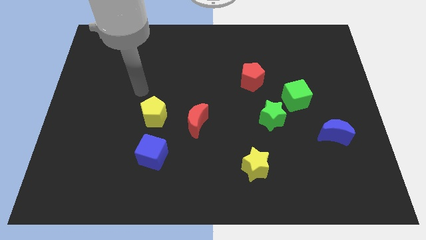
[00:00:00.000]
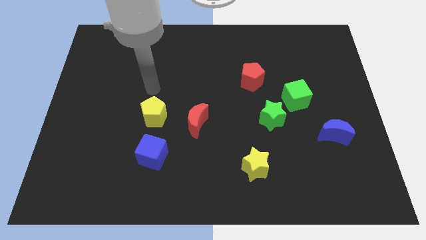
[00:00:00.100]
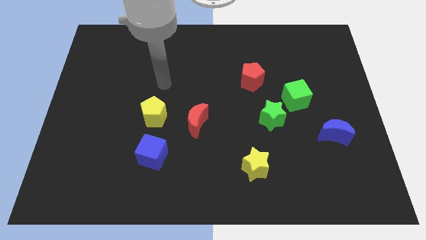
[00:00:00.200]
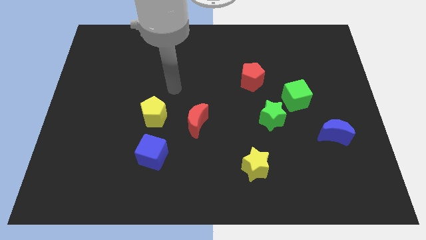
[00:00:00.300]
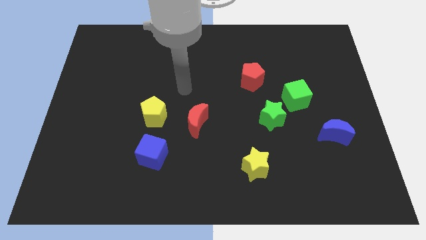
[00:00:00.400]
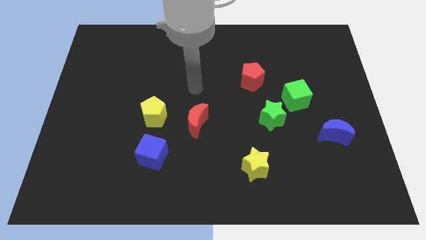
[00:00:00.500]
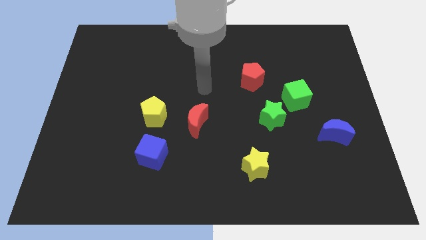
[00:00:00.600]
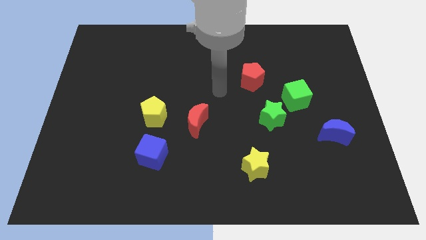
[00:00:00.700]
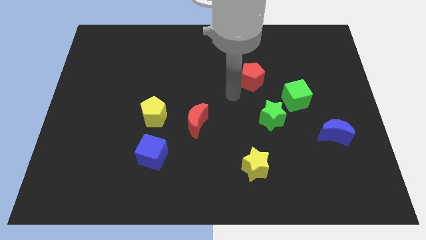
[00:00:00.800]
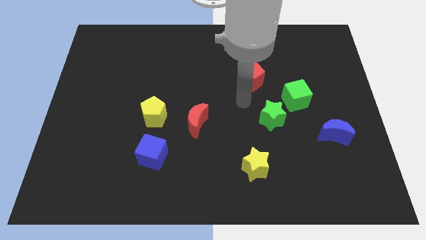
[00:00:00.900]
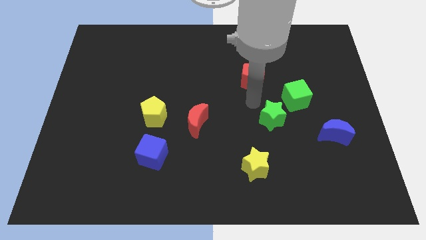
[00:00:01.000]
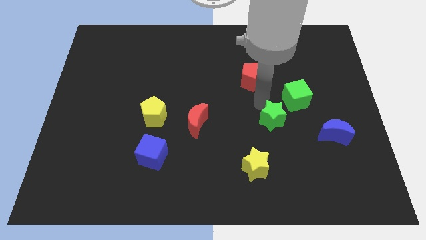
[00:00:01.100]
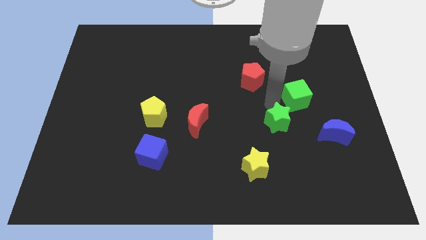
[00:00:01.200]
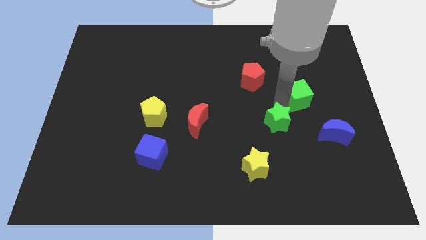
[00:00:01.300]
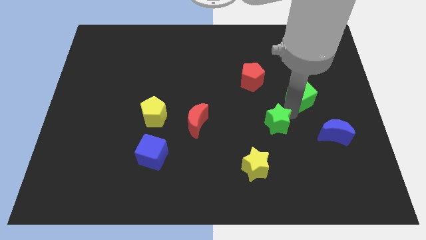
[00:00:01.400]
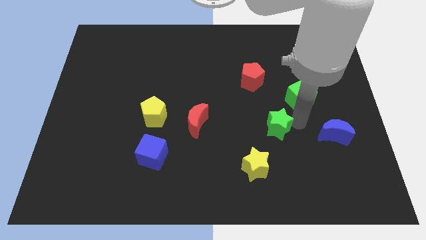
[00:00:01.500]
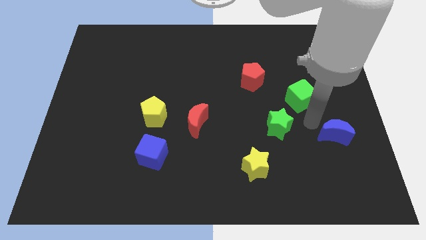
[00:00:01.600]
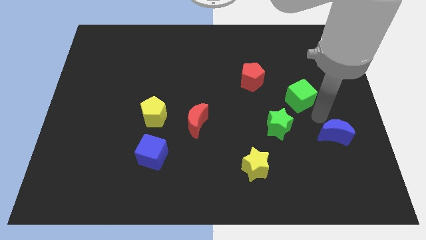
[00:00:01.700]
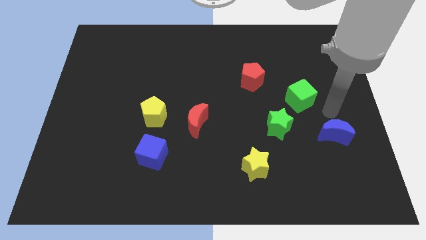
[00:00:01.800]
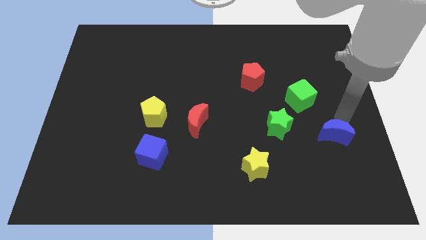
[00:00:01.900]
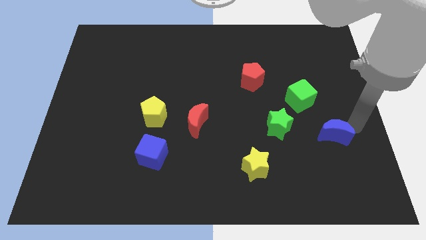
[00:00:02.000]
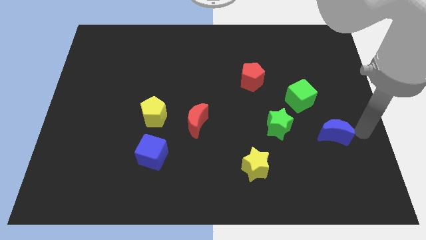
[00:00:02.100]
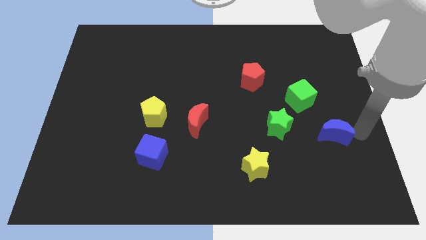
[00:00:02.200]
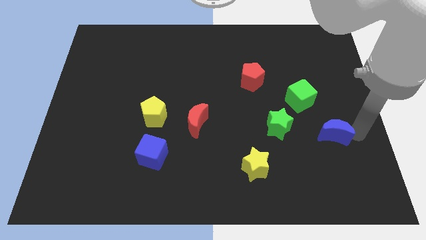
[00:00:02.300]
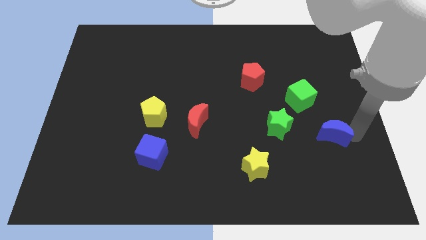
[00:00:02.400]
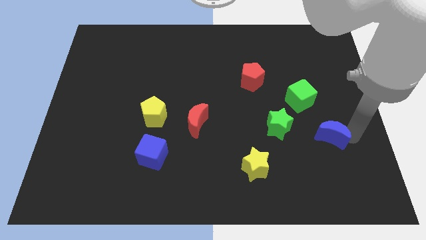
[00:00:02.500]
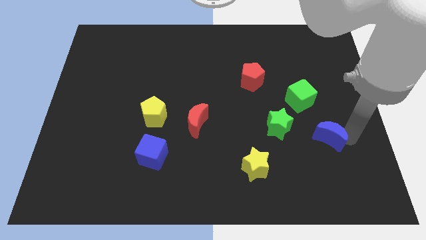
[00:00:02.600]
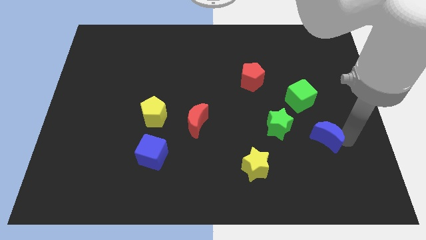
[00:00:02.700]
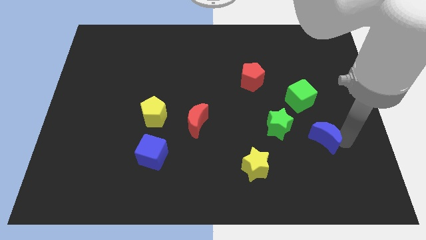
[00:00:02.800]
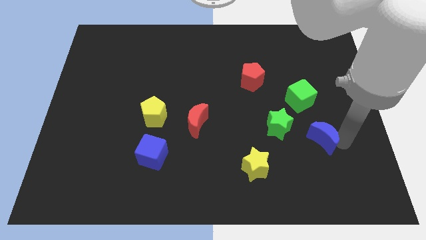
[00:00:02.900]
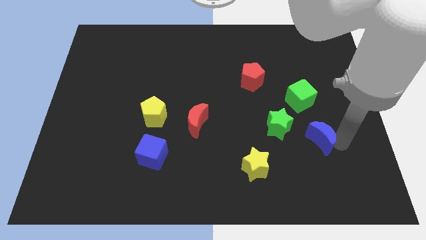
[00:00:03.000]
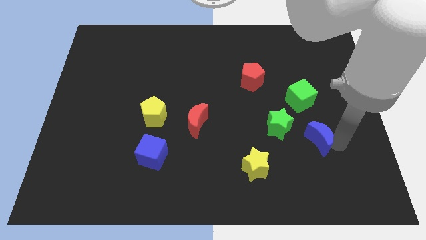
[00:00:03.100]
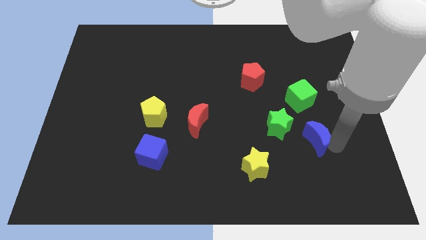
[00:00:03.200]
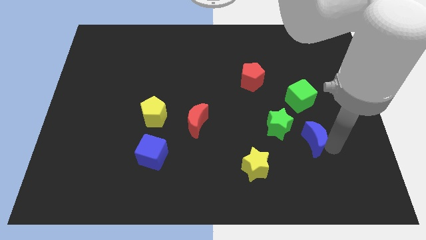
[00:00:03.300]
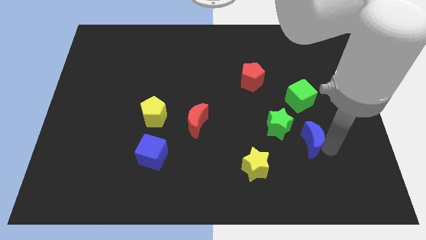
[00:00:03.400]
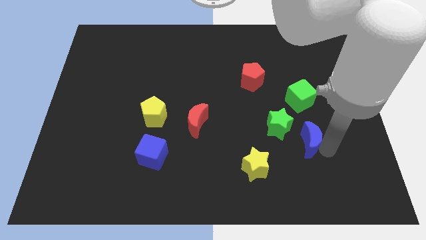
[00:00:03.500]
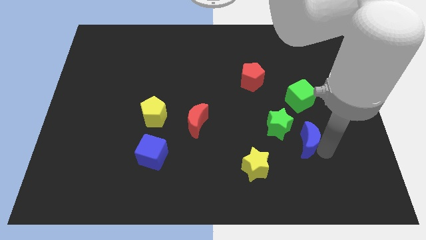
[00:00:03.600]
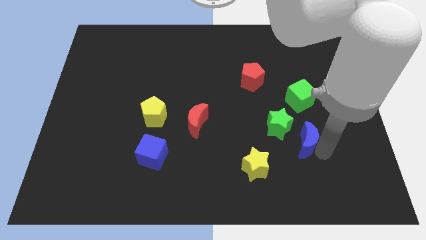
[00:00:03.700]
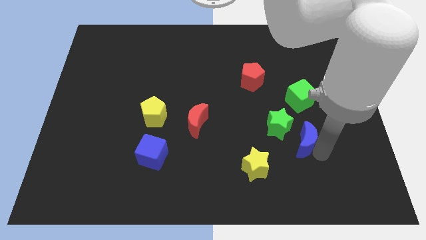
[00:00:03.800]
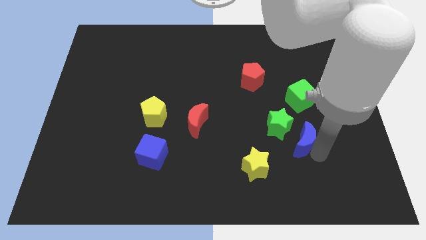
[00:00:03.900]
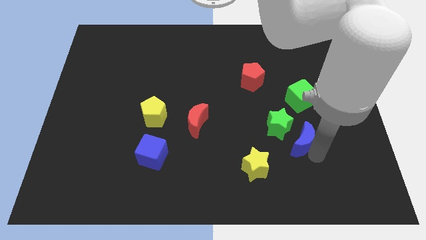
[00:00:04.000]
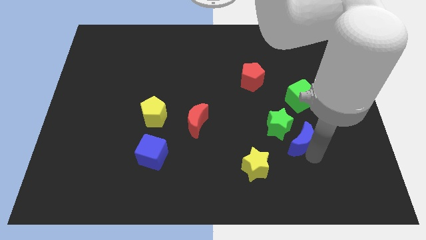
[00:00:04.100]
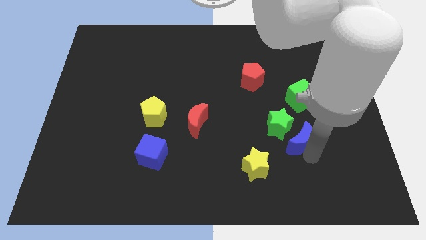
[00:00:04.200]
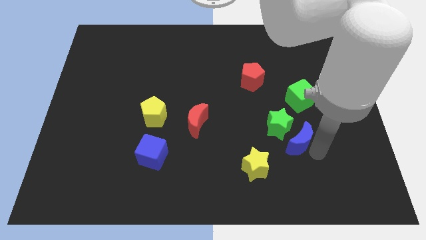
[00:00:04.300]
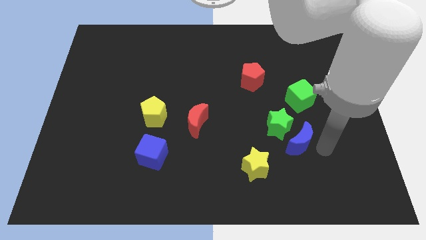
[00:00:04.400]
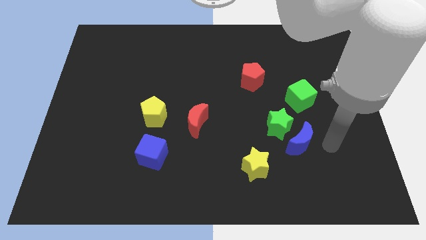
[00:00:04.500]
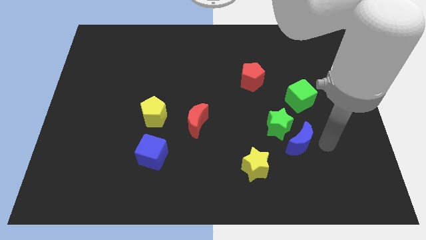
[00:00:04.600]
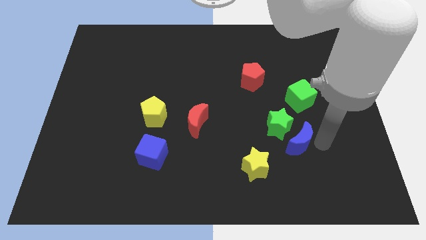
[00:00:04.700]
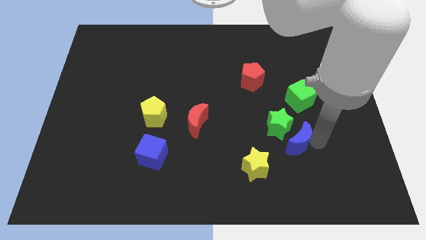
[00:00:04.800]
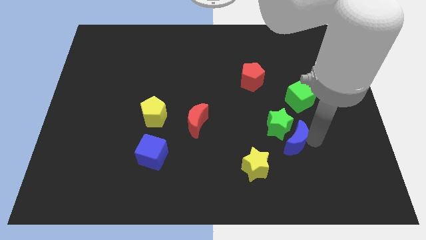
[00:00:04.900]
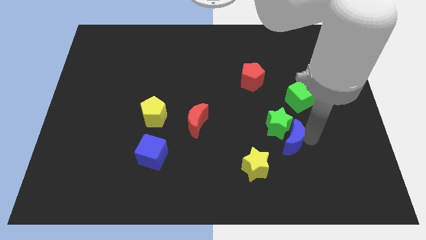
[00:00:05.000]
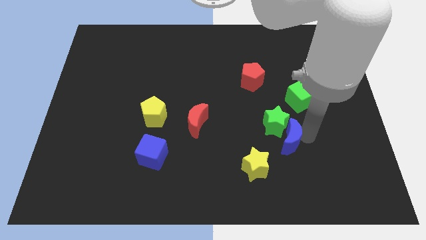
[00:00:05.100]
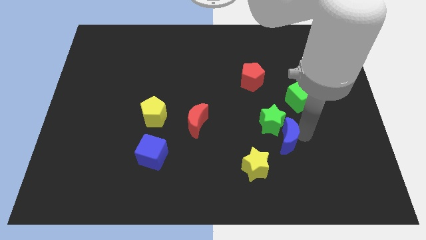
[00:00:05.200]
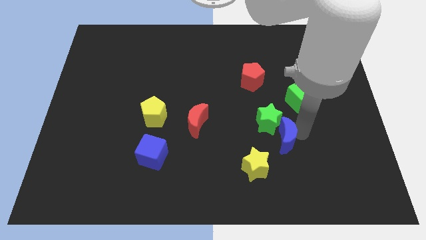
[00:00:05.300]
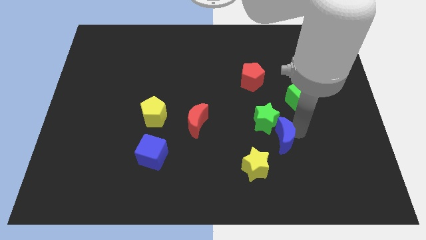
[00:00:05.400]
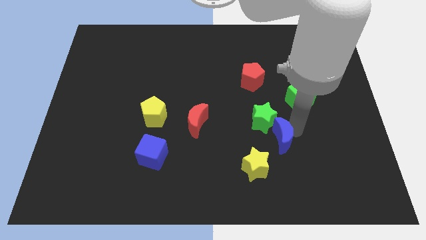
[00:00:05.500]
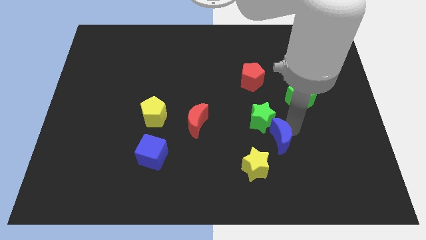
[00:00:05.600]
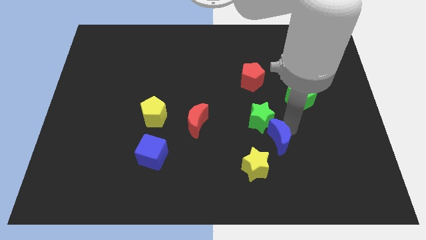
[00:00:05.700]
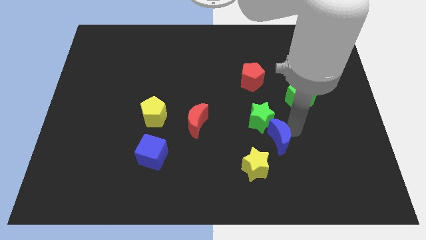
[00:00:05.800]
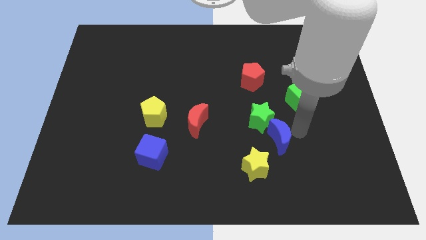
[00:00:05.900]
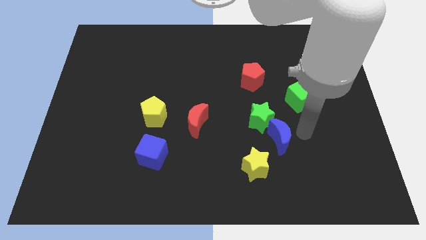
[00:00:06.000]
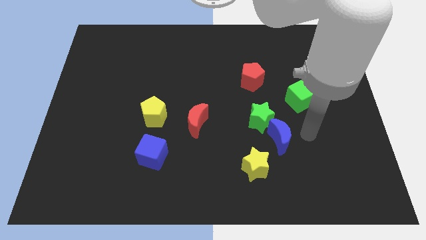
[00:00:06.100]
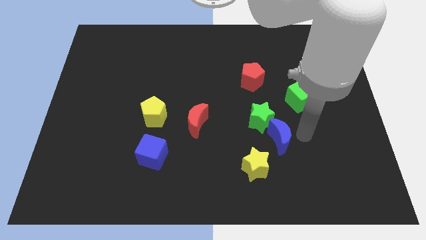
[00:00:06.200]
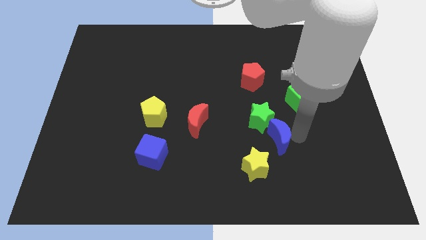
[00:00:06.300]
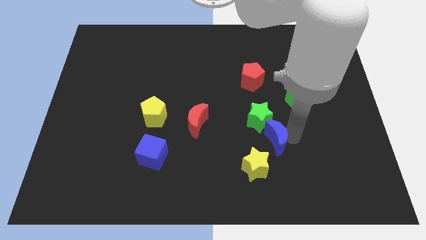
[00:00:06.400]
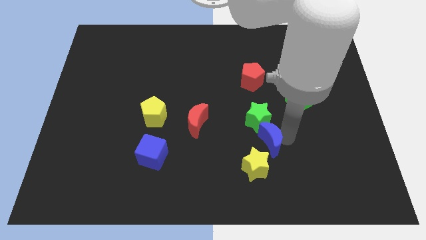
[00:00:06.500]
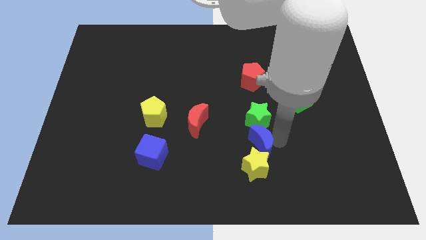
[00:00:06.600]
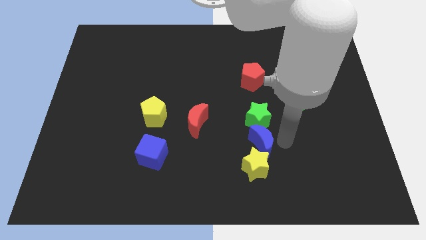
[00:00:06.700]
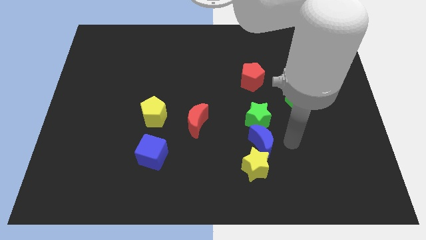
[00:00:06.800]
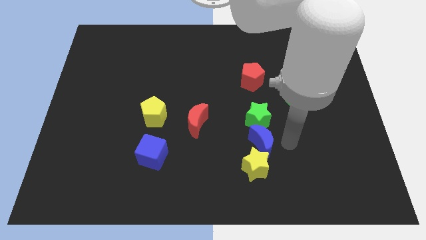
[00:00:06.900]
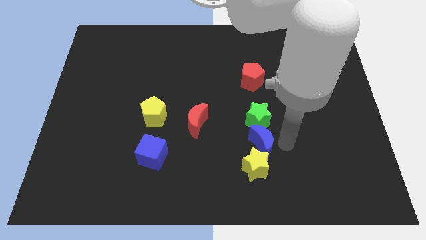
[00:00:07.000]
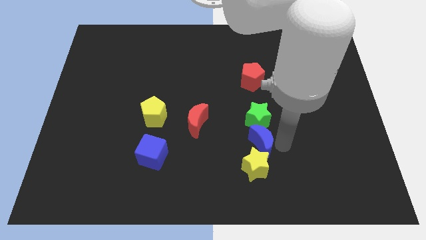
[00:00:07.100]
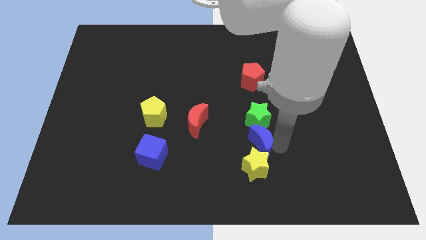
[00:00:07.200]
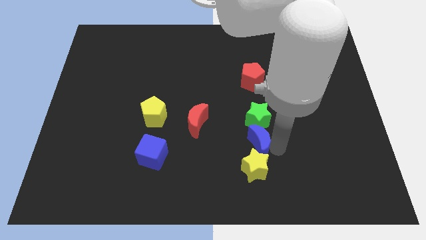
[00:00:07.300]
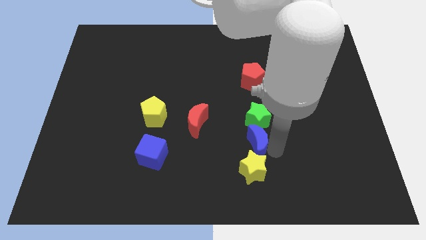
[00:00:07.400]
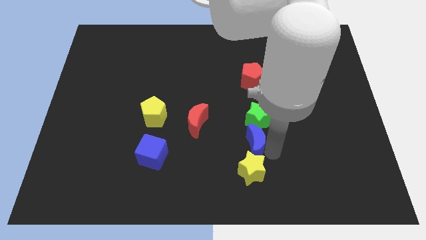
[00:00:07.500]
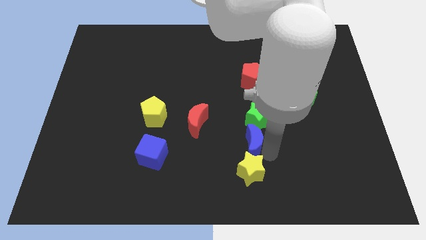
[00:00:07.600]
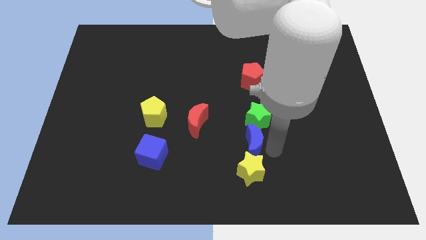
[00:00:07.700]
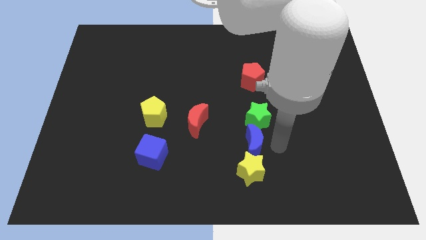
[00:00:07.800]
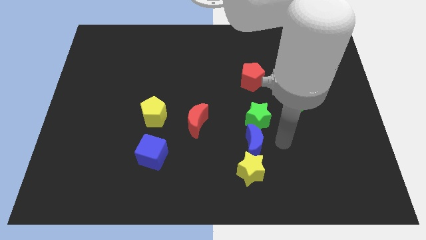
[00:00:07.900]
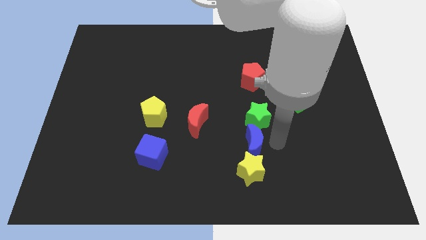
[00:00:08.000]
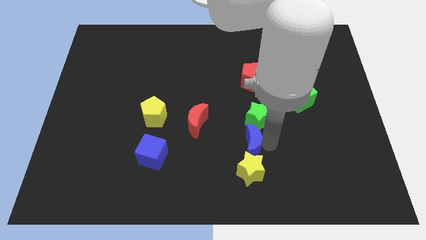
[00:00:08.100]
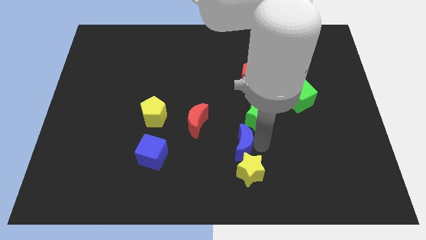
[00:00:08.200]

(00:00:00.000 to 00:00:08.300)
move the blue moon to the top left side of the yellow star
